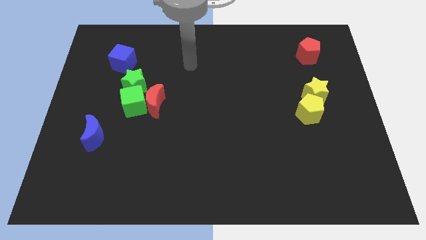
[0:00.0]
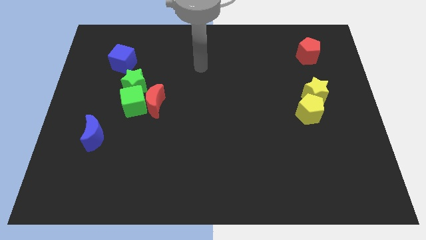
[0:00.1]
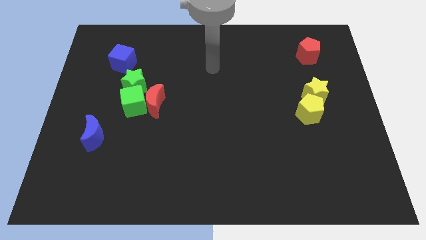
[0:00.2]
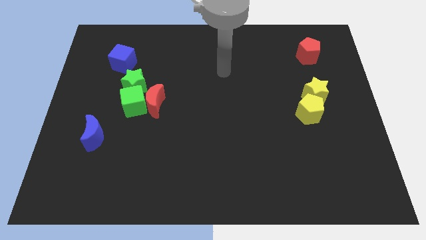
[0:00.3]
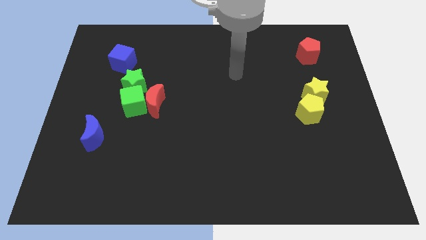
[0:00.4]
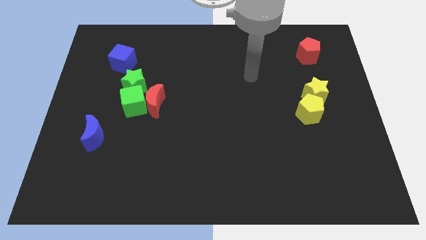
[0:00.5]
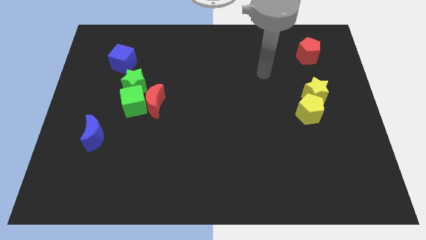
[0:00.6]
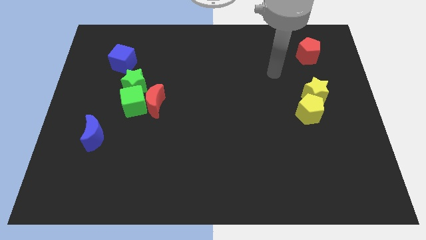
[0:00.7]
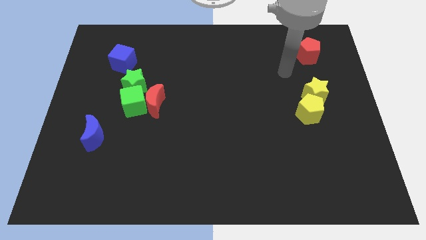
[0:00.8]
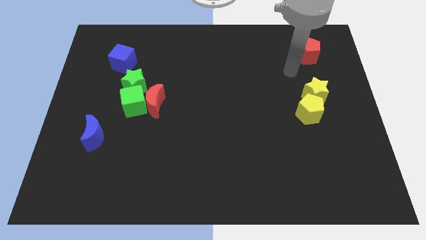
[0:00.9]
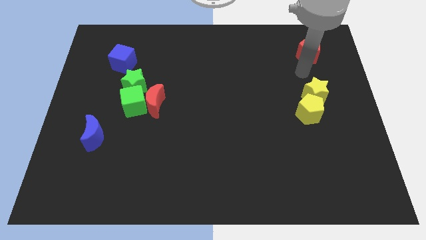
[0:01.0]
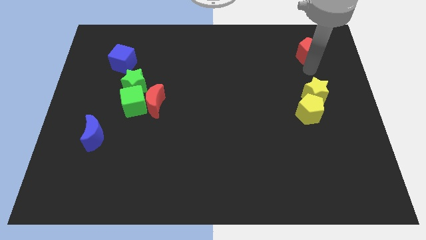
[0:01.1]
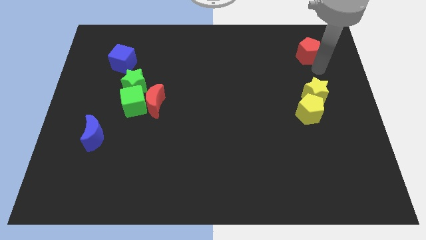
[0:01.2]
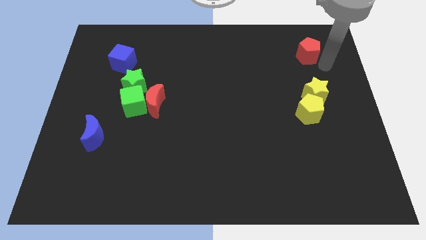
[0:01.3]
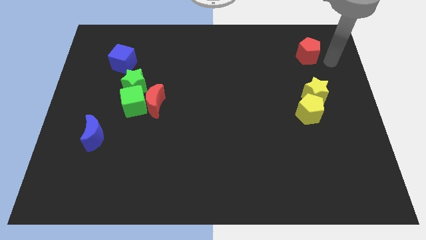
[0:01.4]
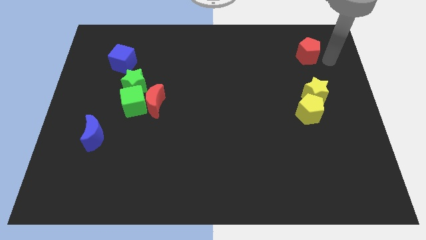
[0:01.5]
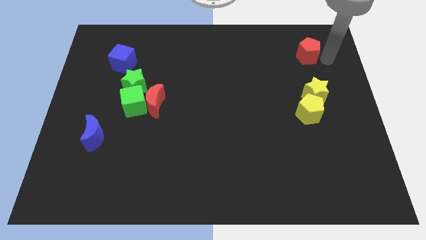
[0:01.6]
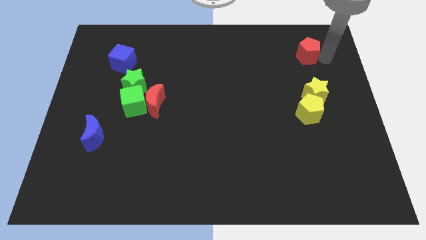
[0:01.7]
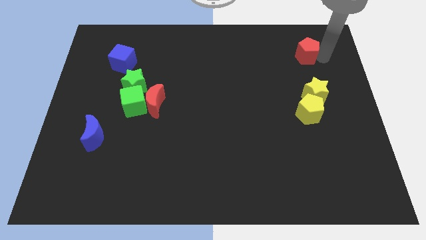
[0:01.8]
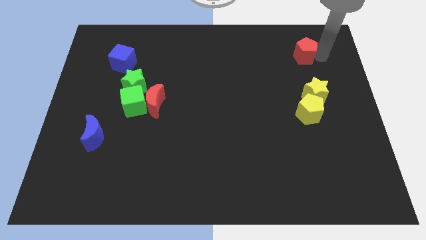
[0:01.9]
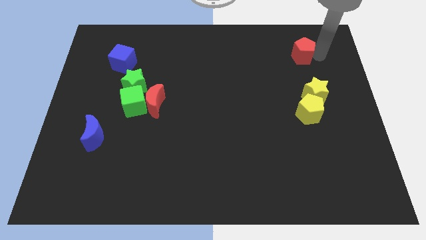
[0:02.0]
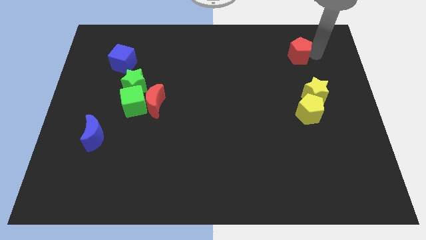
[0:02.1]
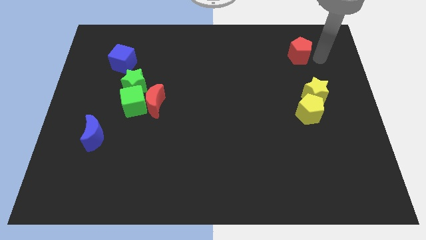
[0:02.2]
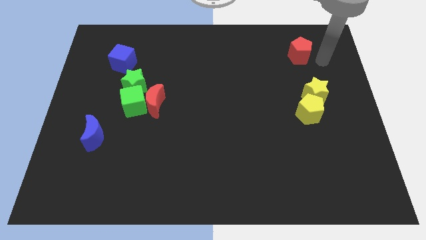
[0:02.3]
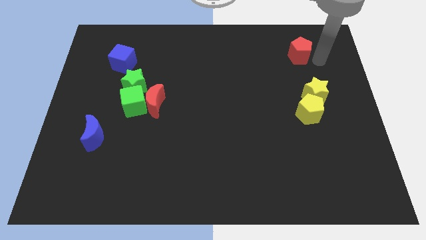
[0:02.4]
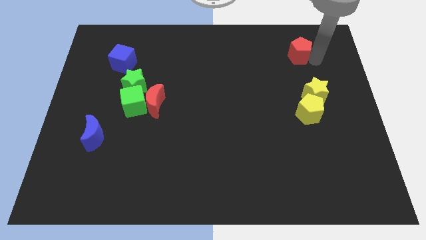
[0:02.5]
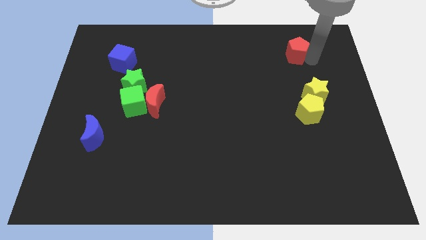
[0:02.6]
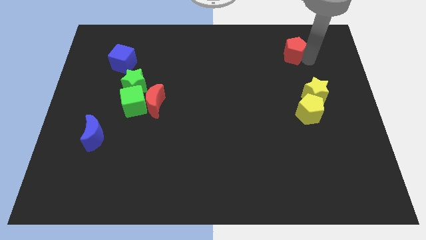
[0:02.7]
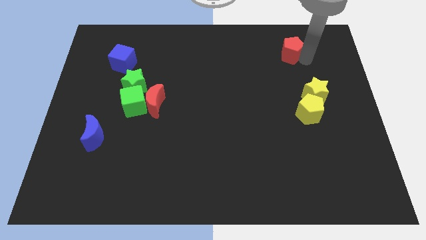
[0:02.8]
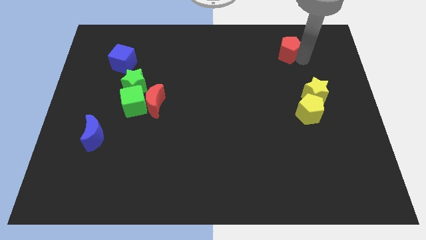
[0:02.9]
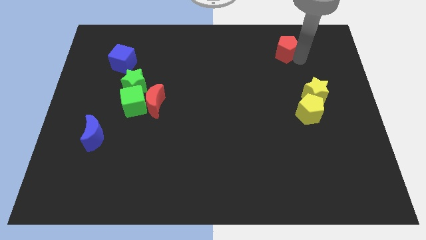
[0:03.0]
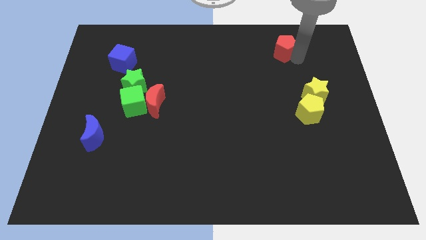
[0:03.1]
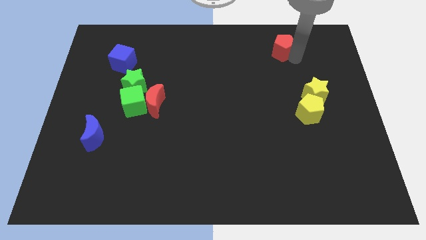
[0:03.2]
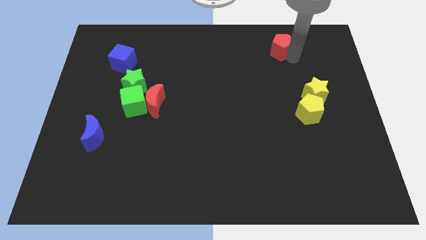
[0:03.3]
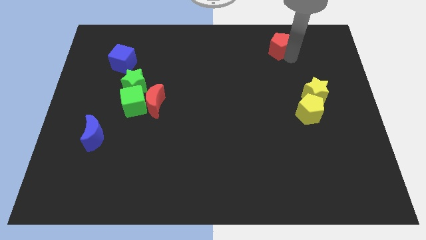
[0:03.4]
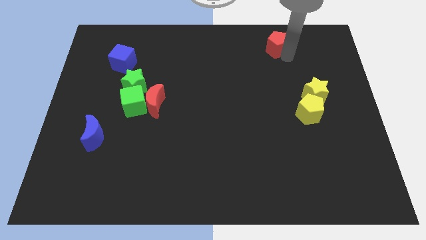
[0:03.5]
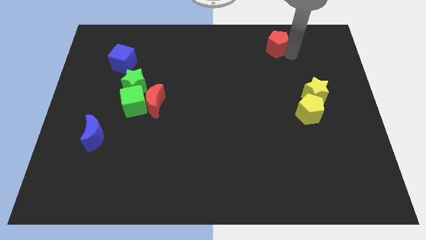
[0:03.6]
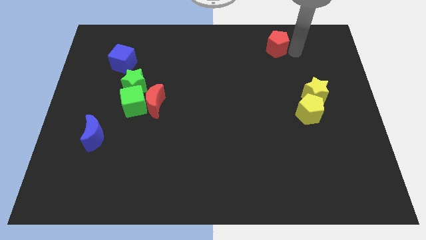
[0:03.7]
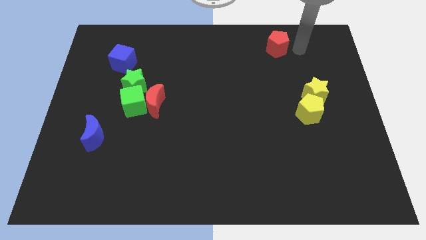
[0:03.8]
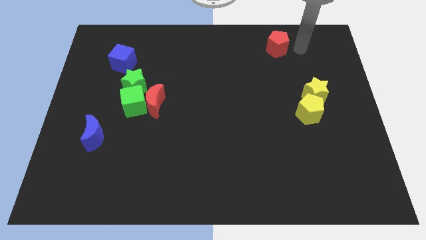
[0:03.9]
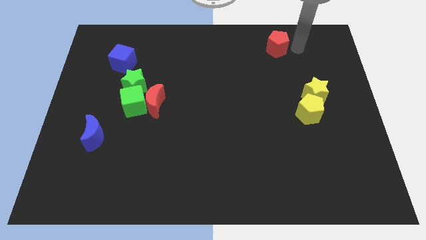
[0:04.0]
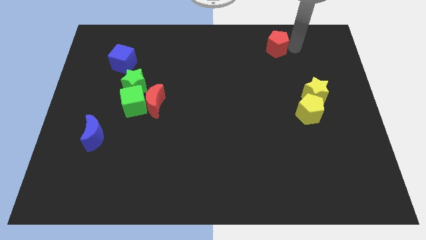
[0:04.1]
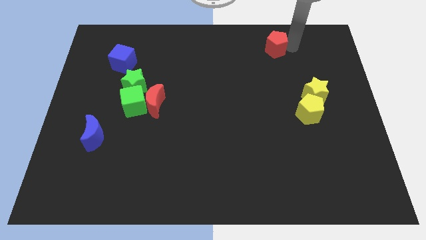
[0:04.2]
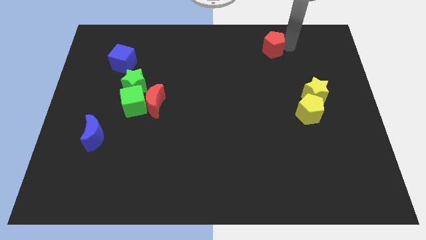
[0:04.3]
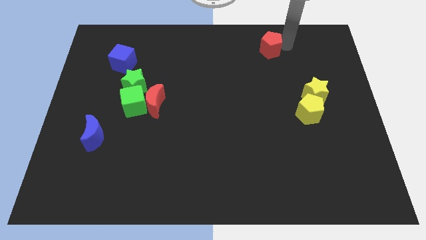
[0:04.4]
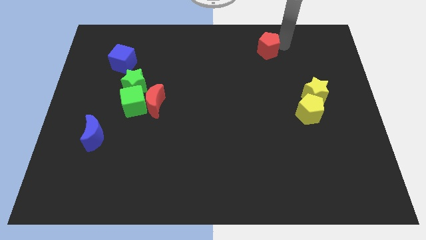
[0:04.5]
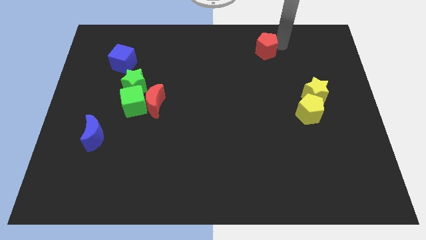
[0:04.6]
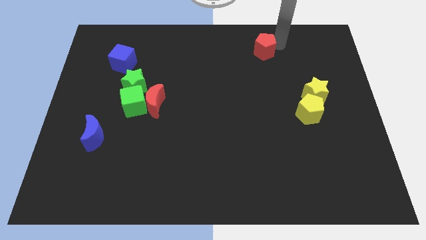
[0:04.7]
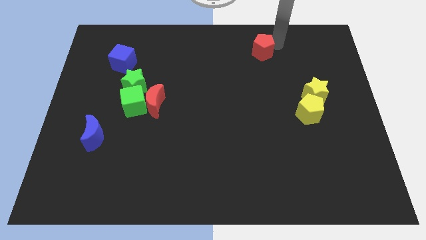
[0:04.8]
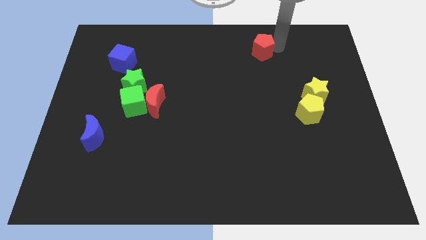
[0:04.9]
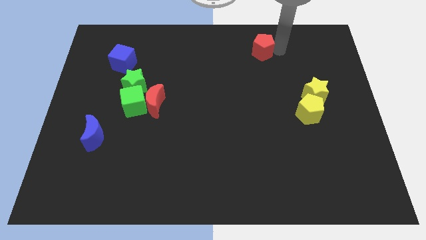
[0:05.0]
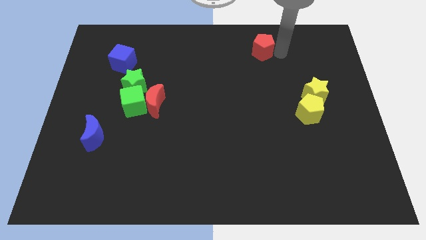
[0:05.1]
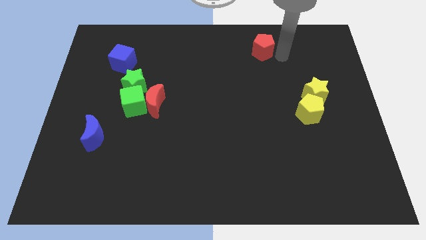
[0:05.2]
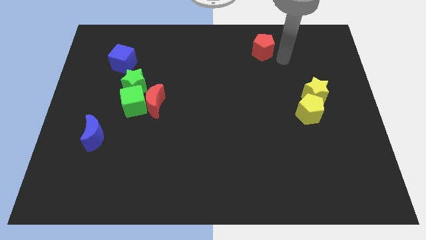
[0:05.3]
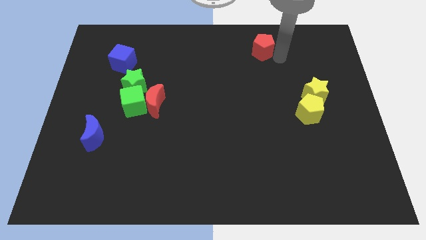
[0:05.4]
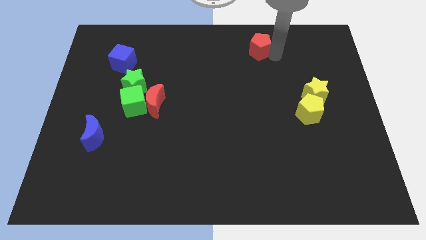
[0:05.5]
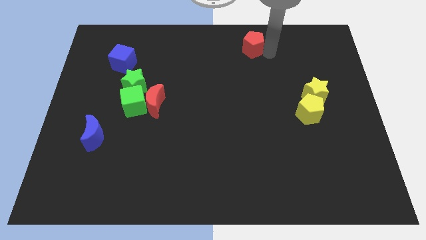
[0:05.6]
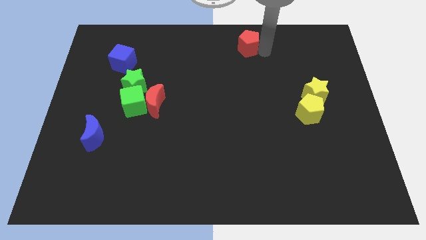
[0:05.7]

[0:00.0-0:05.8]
put the red pentagon to the top side

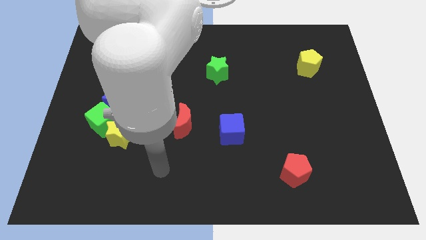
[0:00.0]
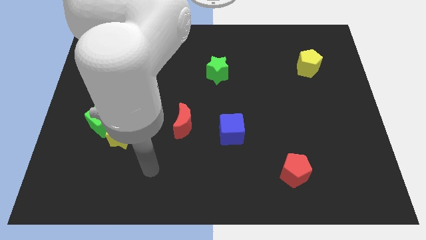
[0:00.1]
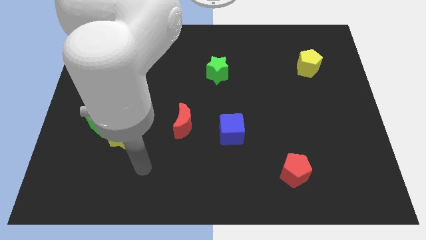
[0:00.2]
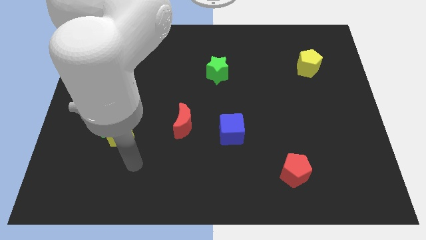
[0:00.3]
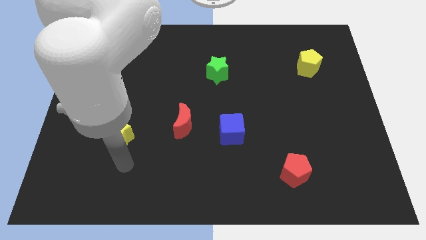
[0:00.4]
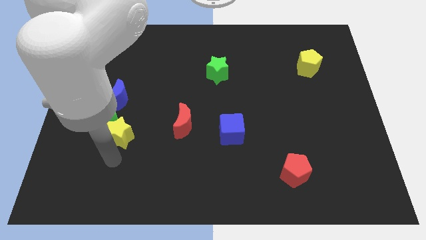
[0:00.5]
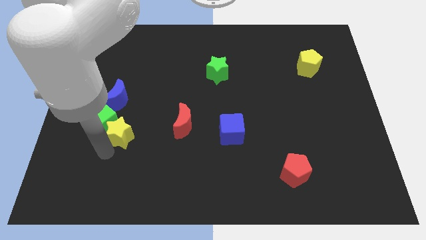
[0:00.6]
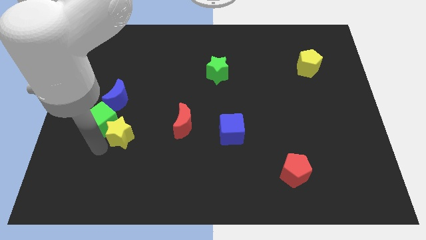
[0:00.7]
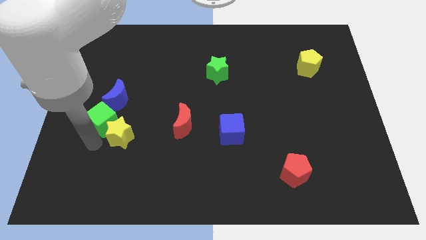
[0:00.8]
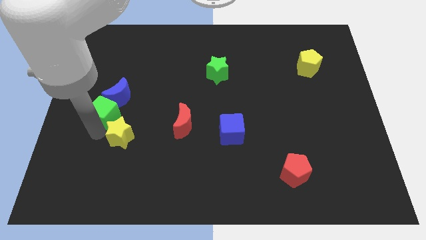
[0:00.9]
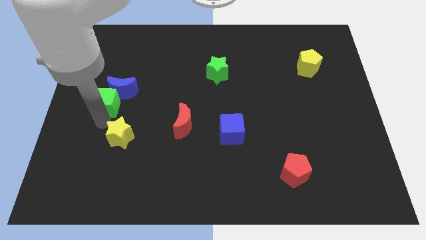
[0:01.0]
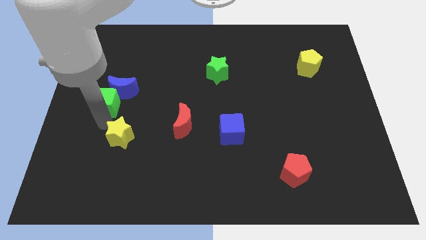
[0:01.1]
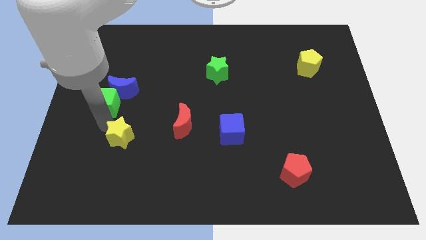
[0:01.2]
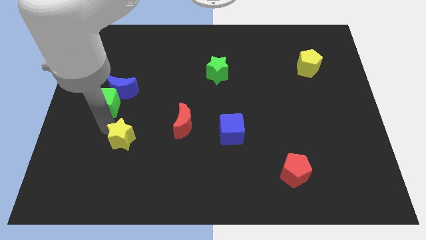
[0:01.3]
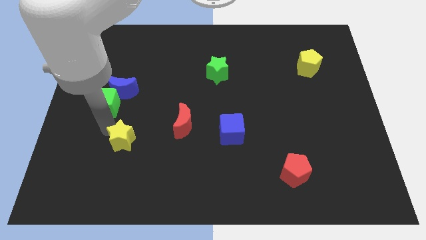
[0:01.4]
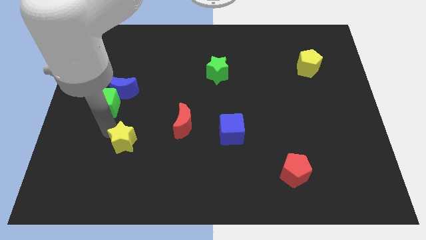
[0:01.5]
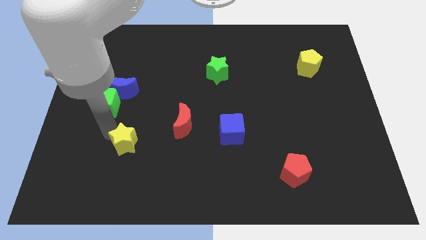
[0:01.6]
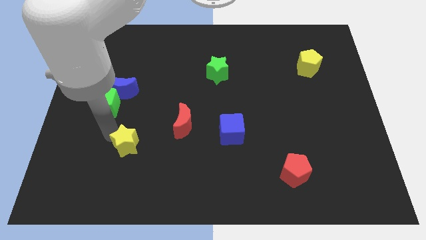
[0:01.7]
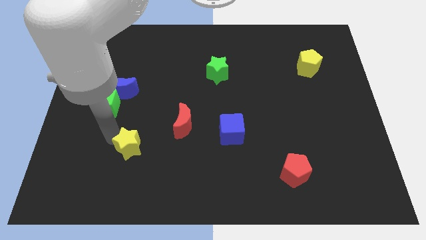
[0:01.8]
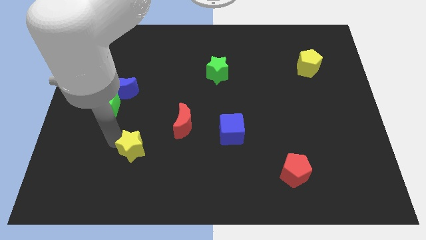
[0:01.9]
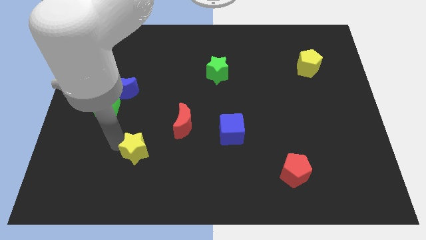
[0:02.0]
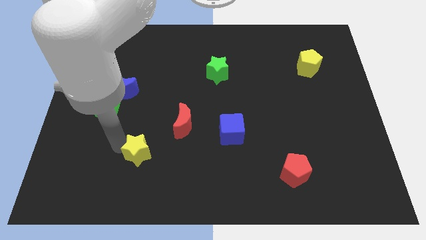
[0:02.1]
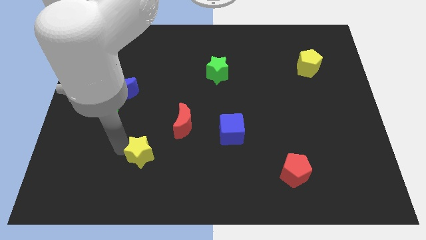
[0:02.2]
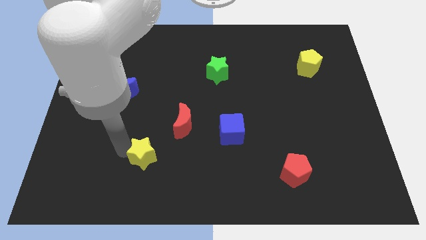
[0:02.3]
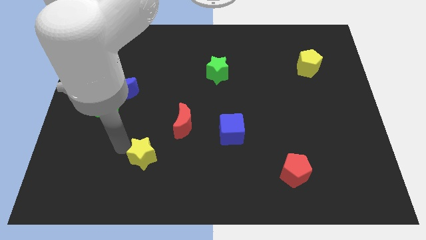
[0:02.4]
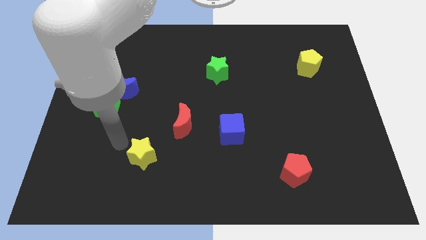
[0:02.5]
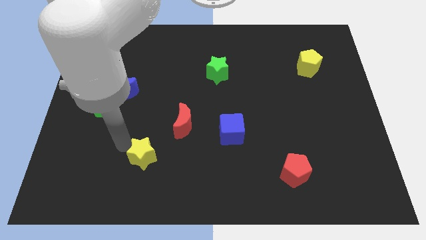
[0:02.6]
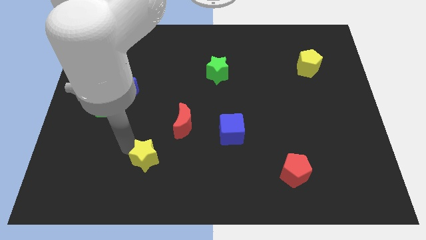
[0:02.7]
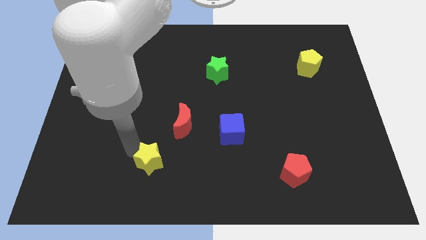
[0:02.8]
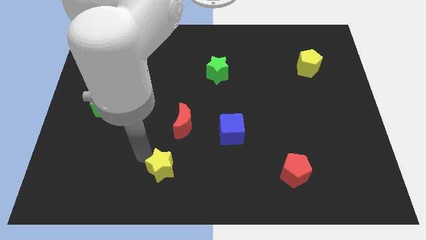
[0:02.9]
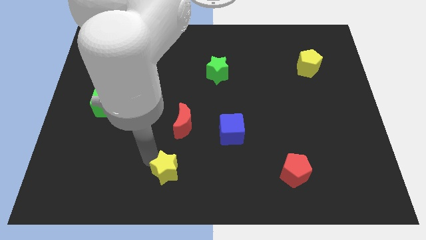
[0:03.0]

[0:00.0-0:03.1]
move the yellow star to the bottom
